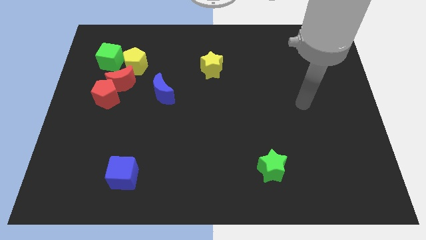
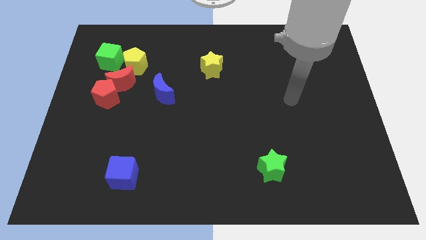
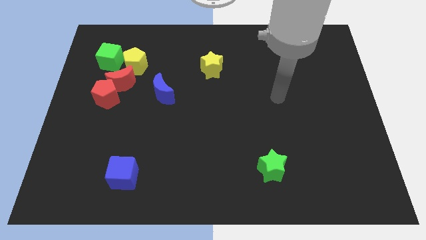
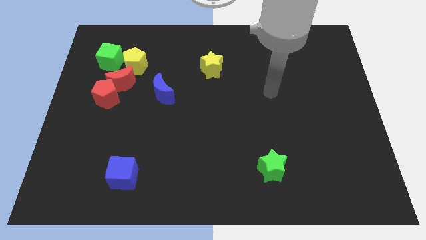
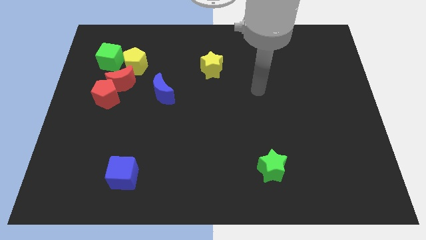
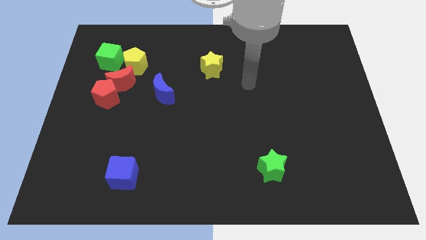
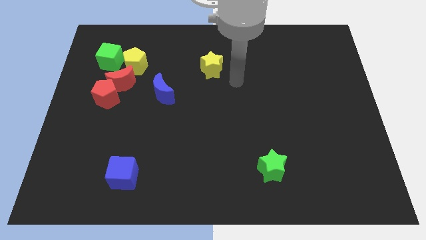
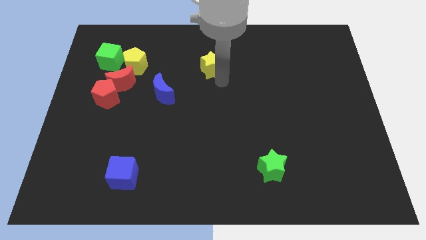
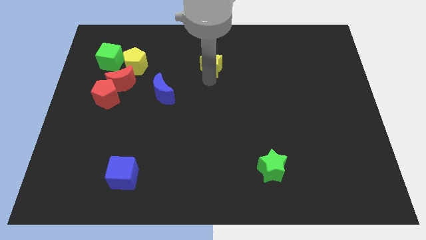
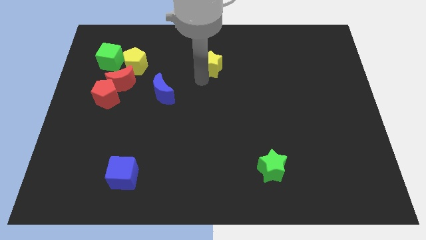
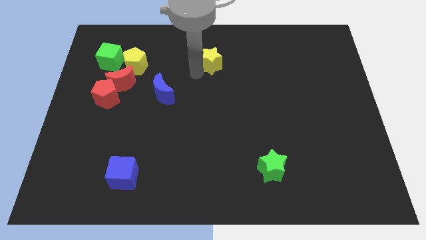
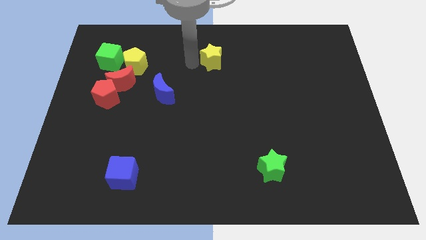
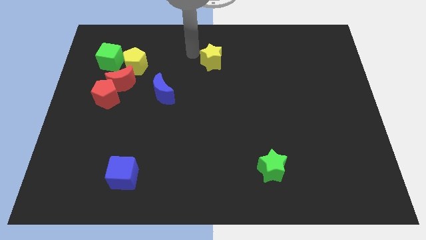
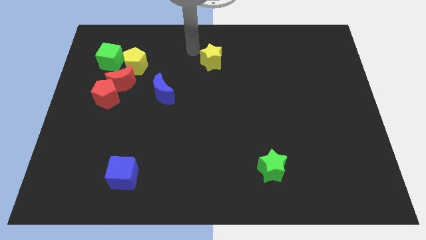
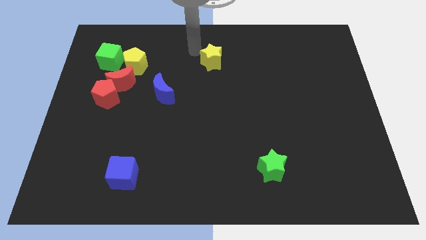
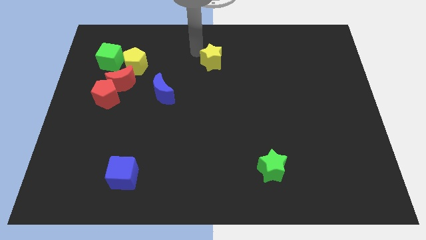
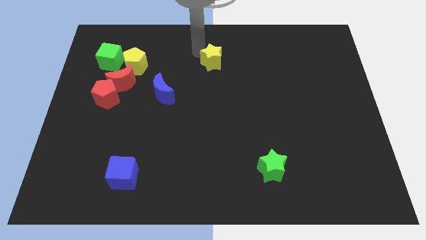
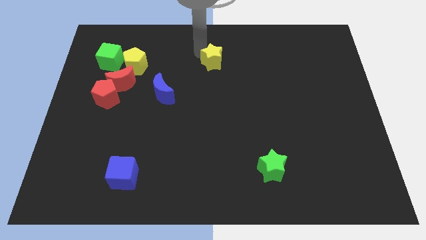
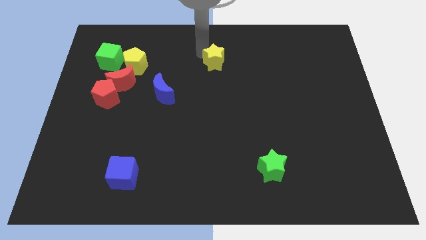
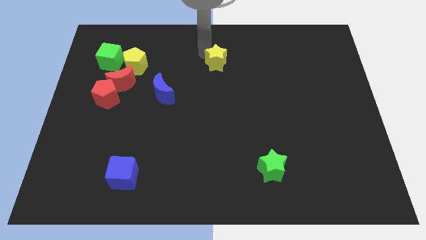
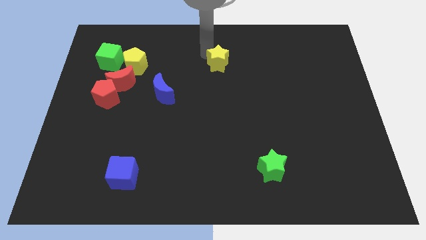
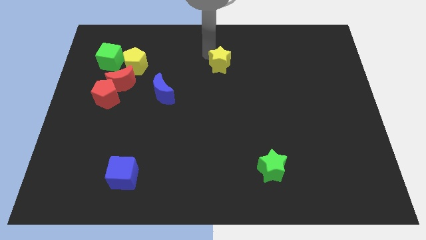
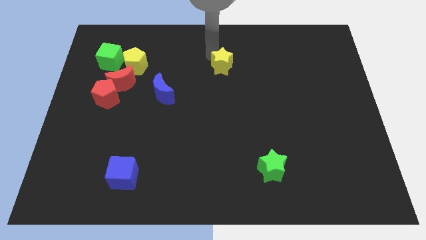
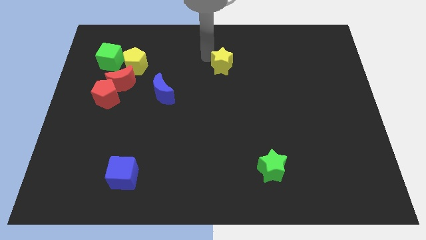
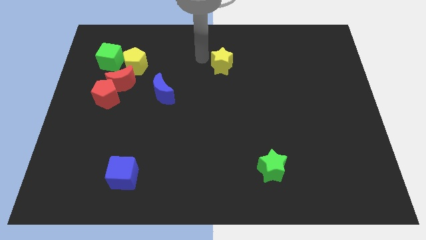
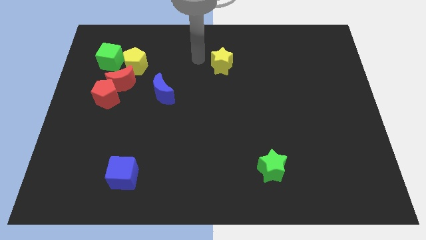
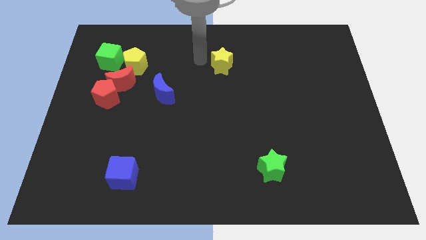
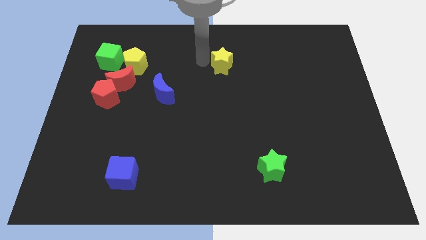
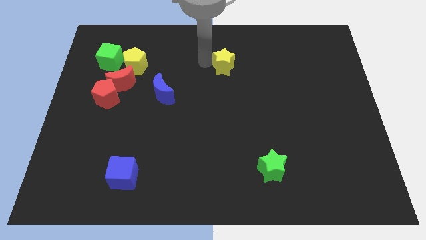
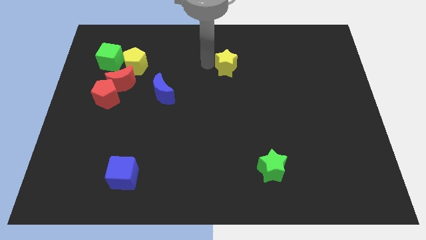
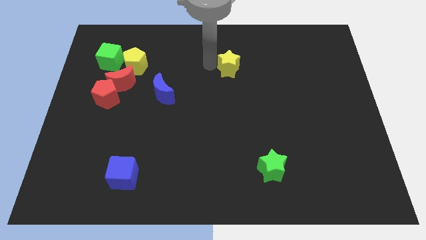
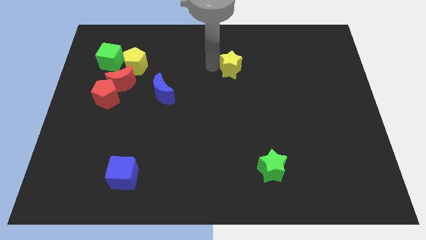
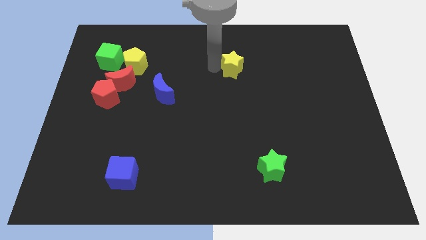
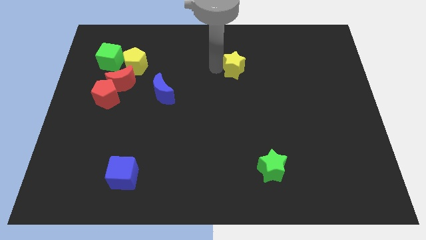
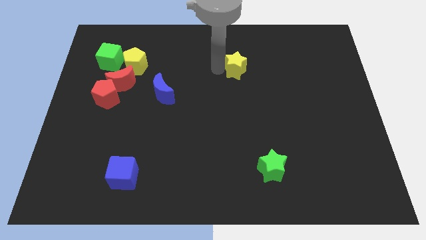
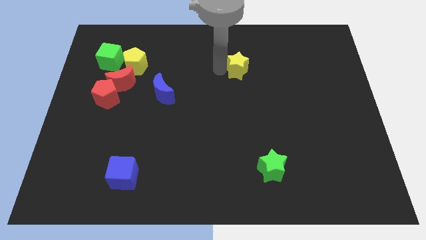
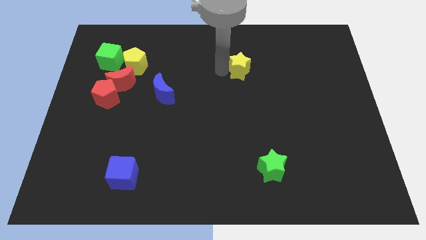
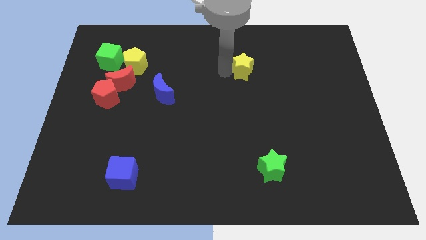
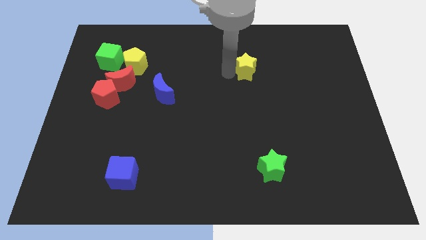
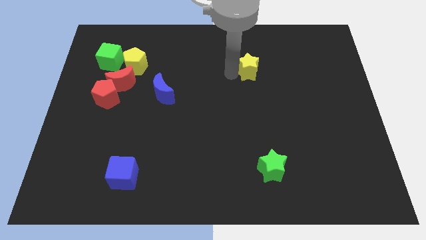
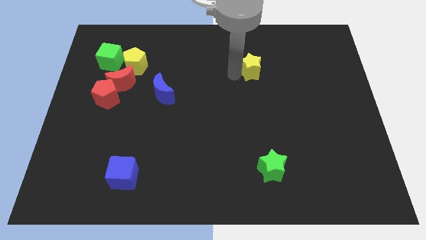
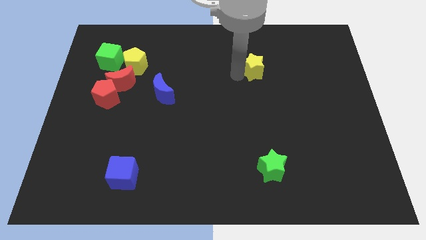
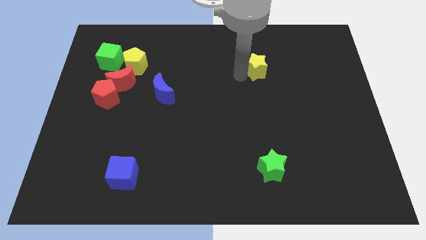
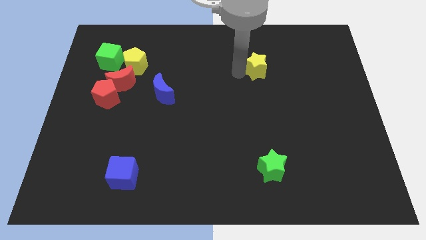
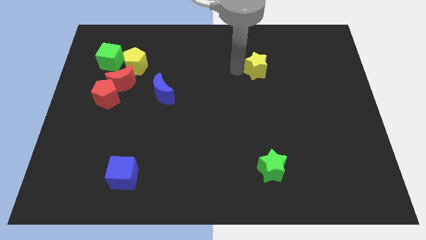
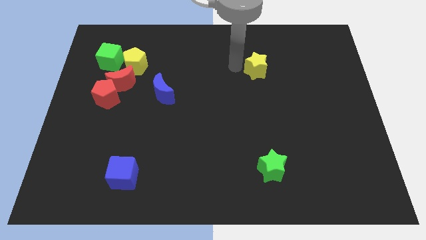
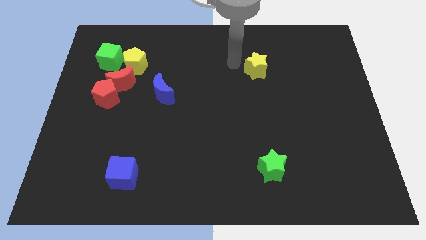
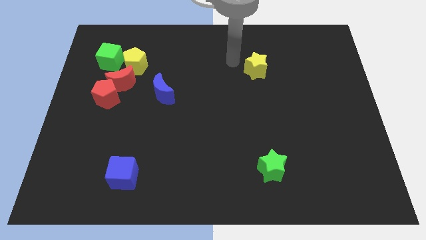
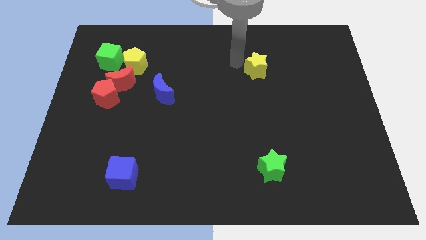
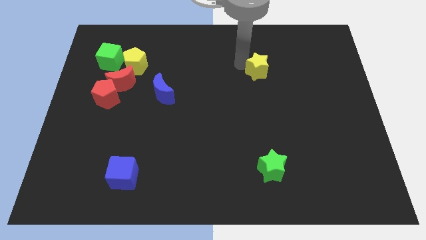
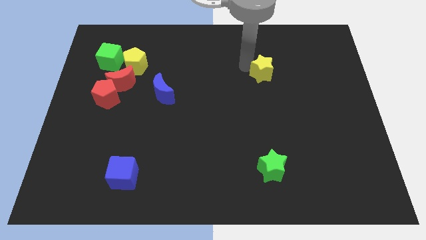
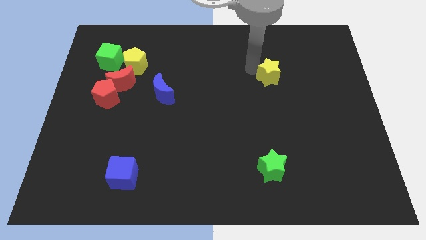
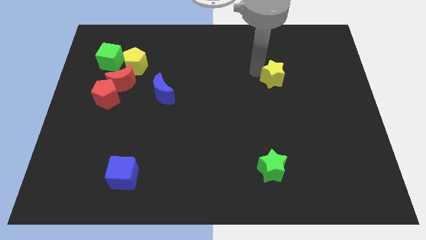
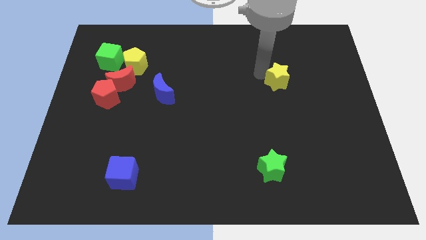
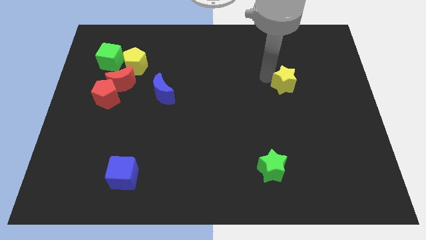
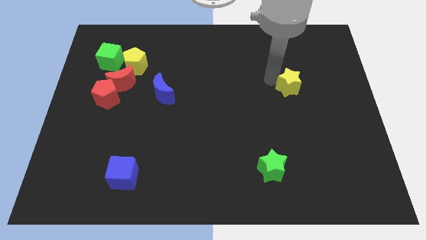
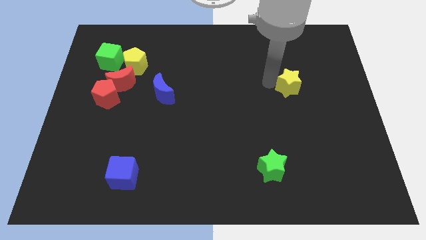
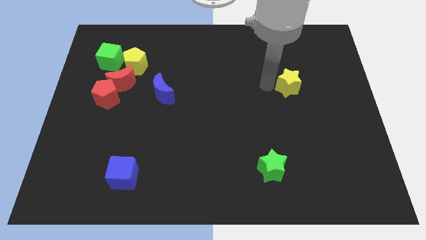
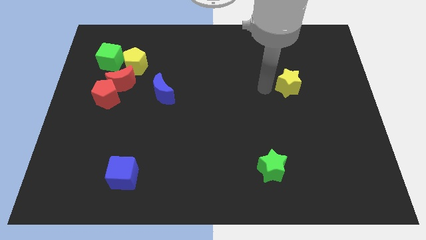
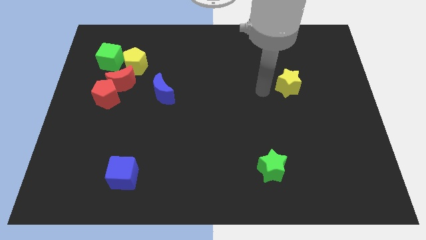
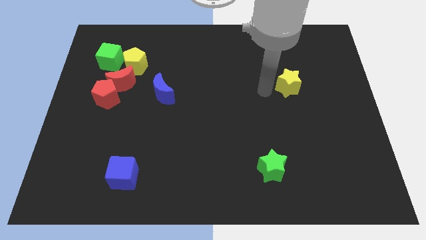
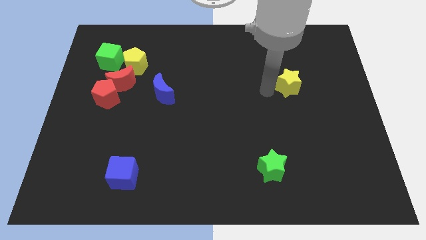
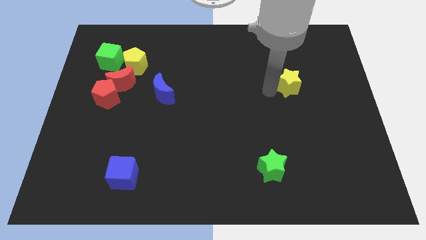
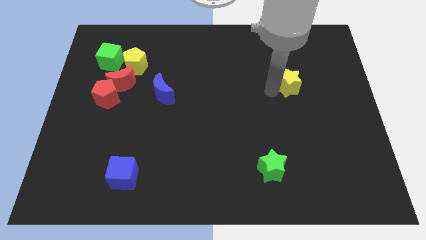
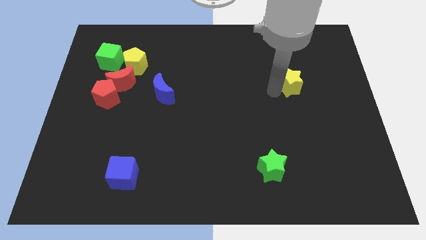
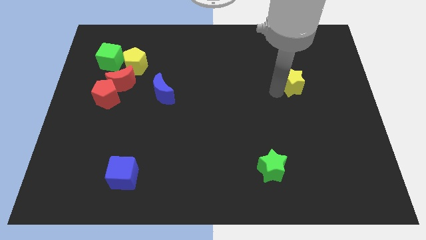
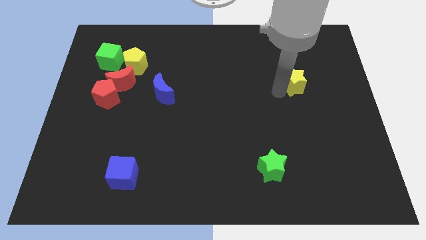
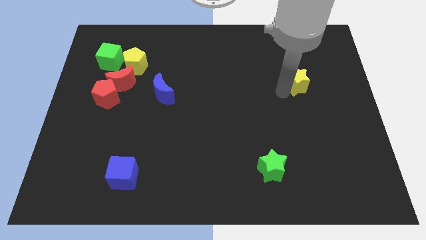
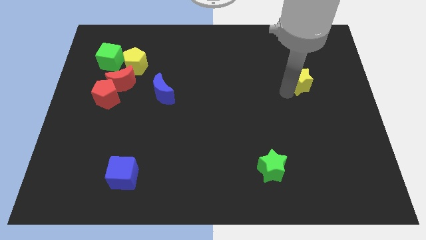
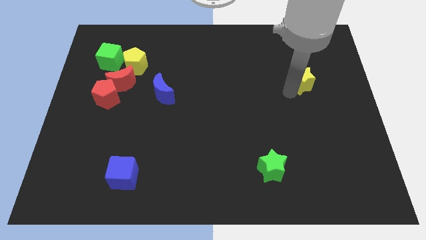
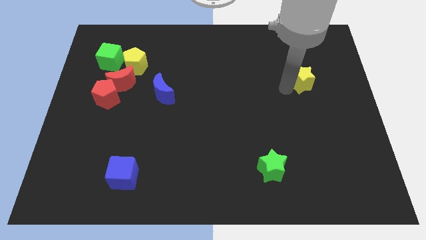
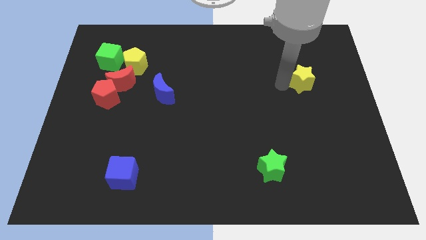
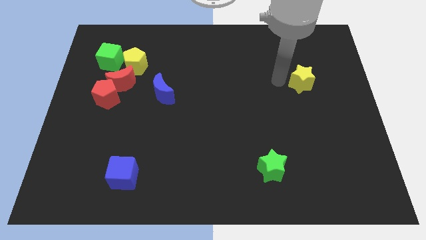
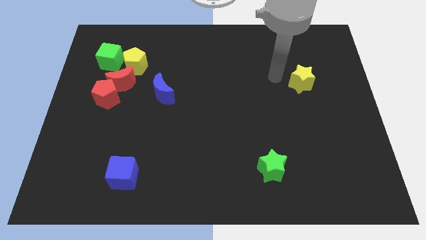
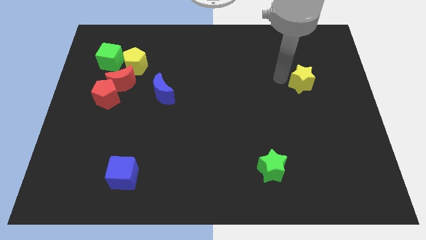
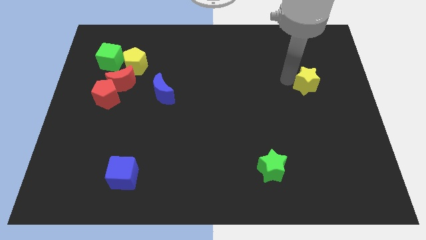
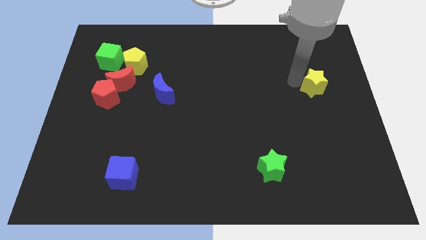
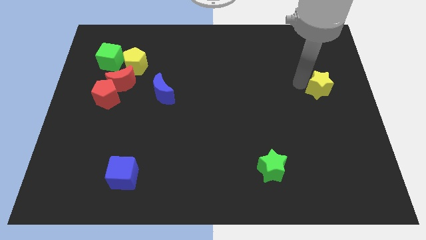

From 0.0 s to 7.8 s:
put the yellow star to the center right

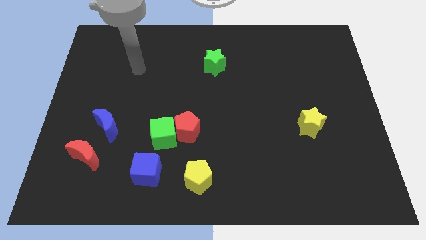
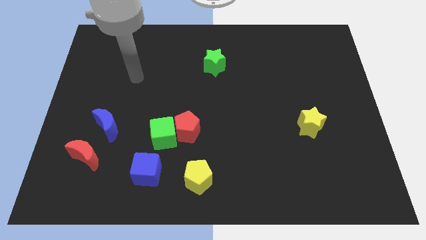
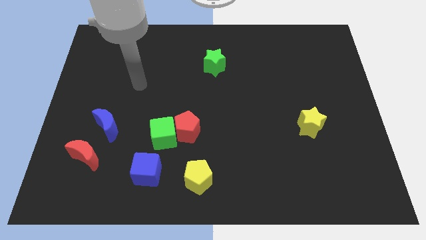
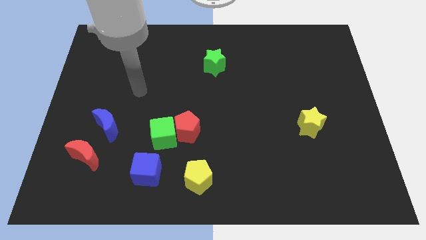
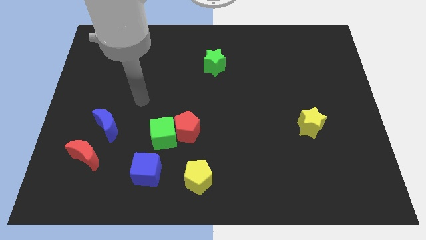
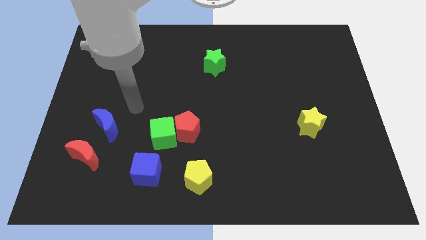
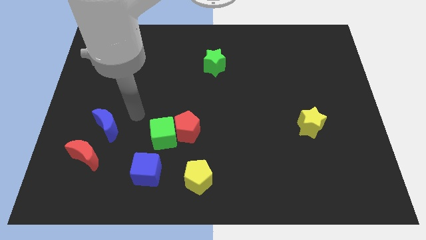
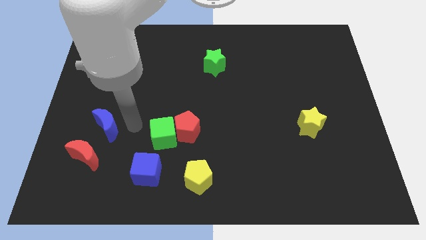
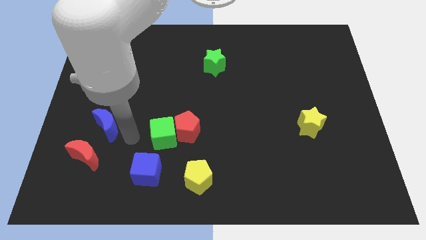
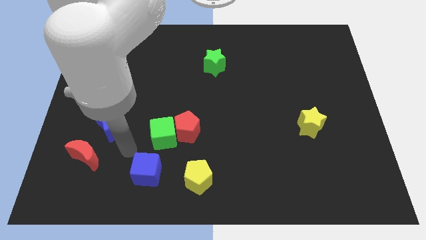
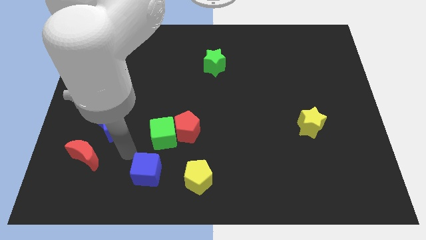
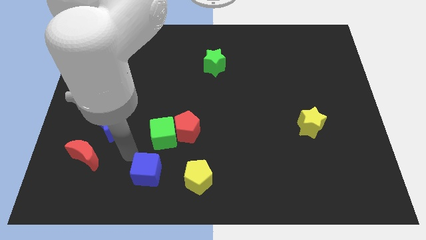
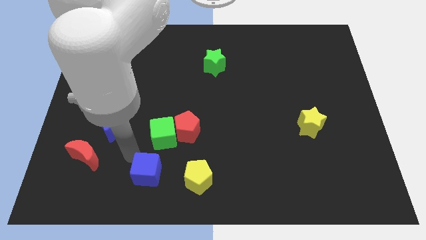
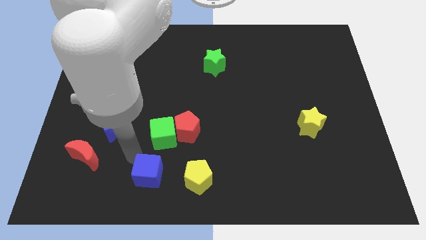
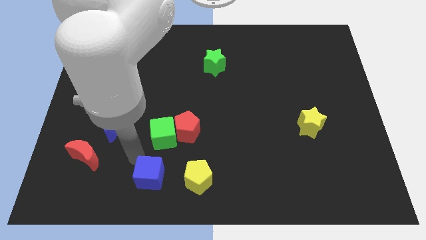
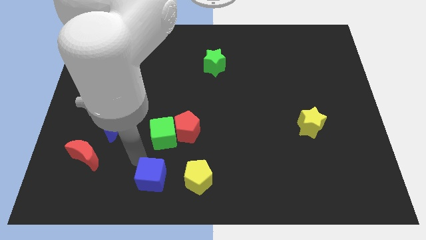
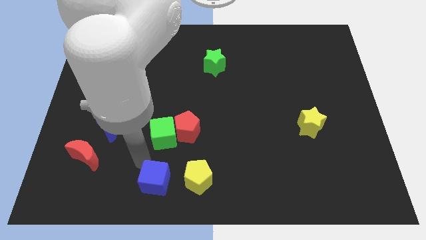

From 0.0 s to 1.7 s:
move the blue cube to the bottom
